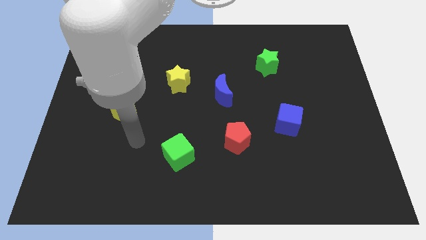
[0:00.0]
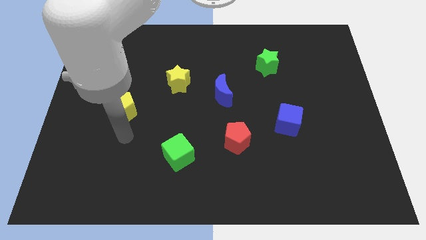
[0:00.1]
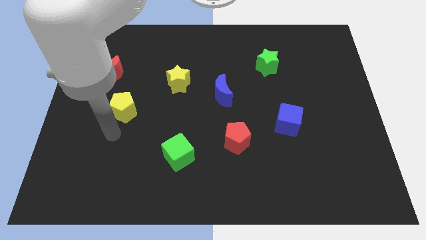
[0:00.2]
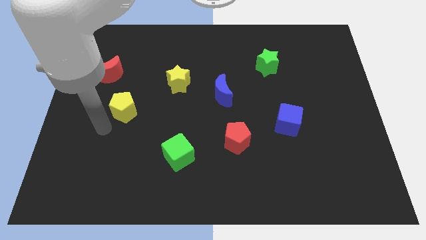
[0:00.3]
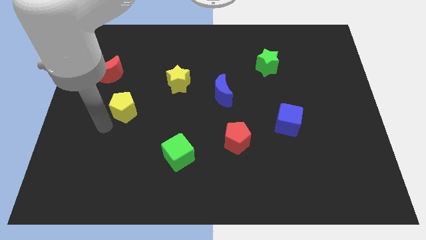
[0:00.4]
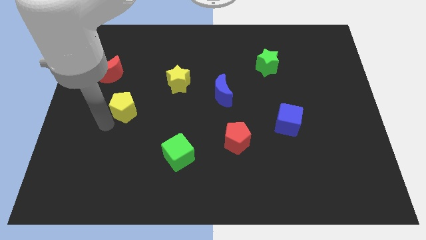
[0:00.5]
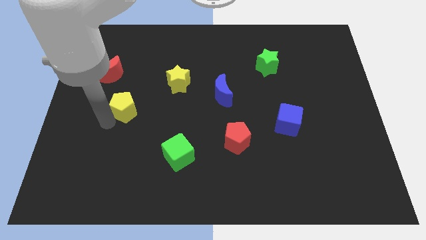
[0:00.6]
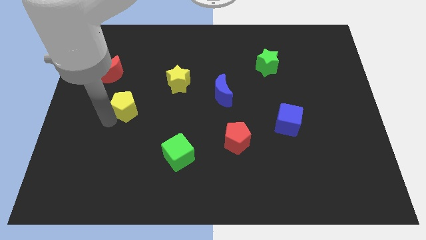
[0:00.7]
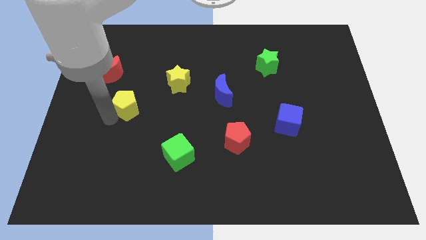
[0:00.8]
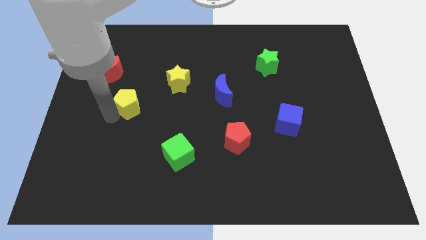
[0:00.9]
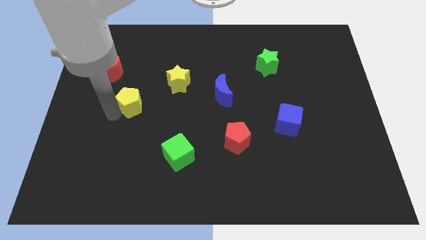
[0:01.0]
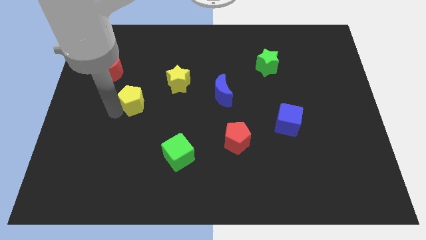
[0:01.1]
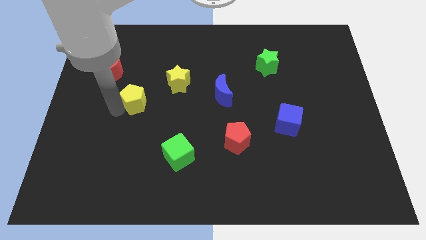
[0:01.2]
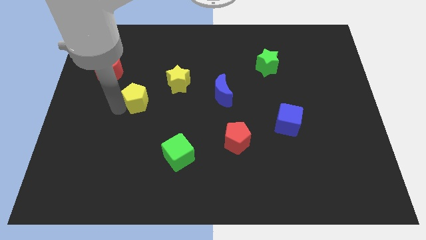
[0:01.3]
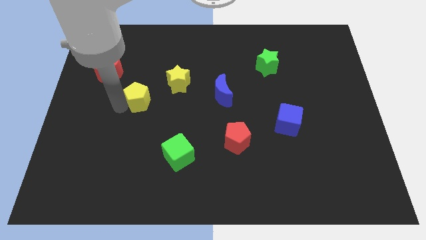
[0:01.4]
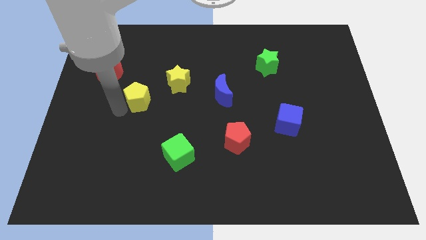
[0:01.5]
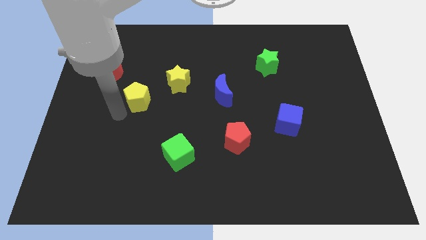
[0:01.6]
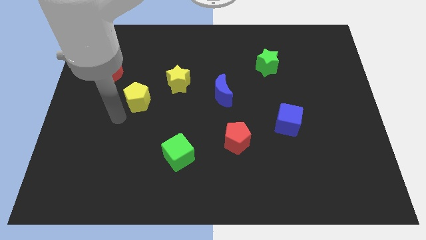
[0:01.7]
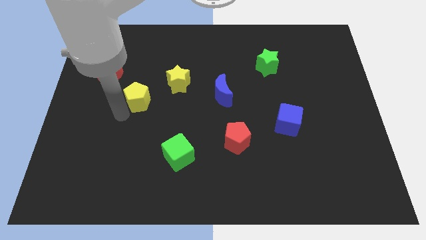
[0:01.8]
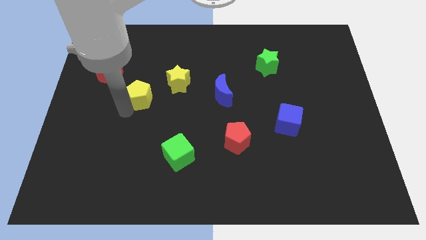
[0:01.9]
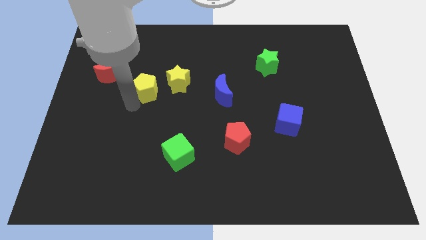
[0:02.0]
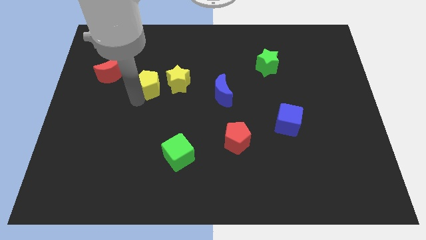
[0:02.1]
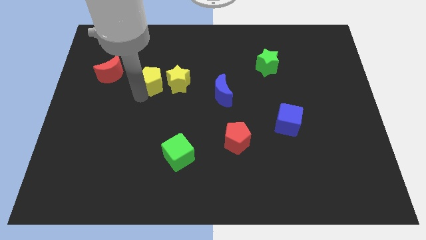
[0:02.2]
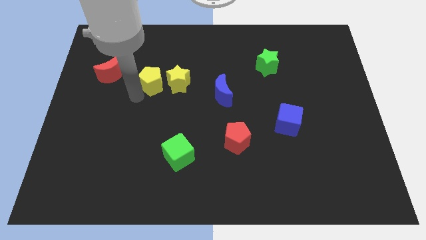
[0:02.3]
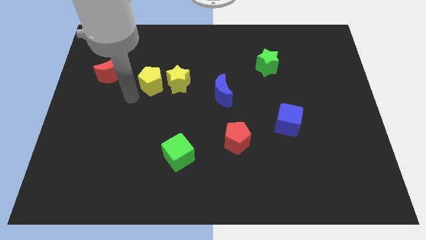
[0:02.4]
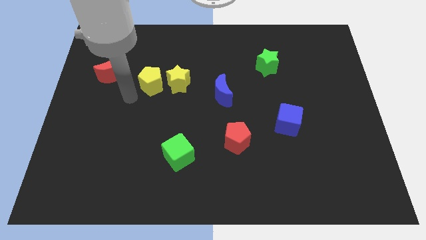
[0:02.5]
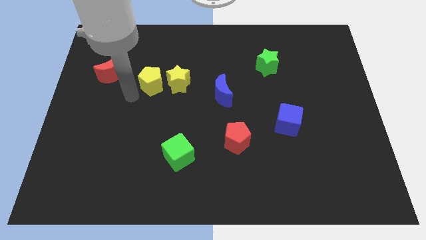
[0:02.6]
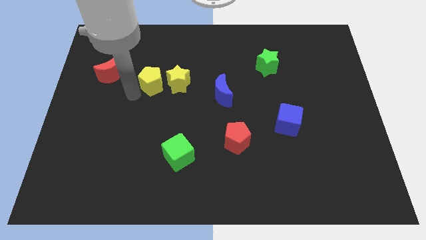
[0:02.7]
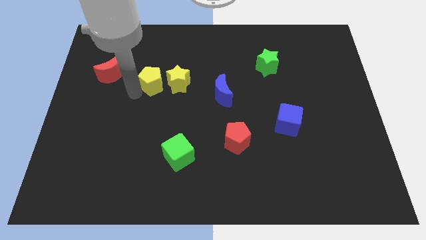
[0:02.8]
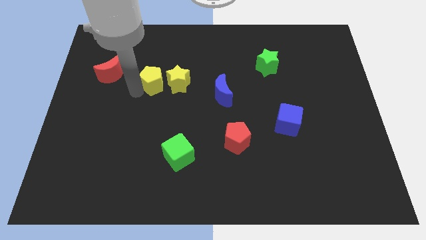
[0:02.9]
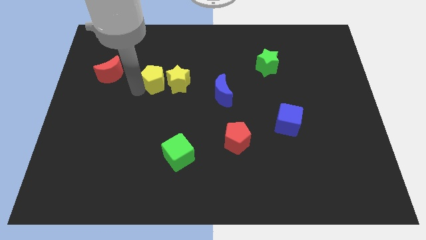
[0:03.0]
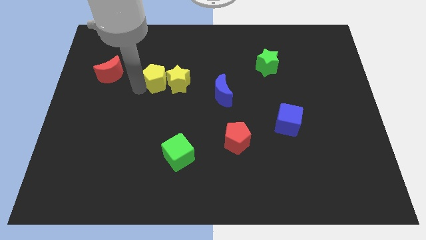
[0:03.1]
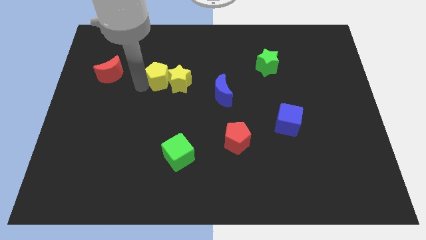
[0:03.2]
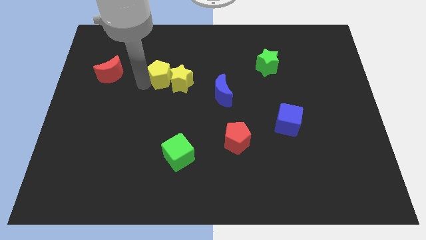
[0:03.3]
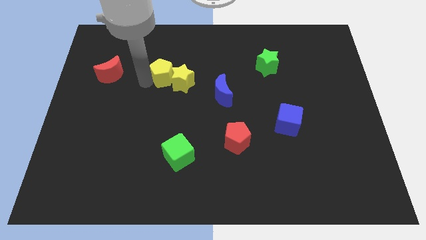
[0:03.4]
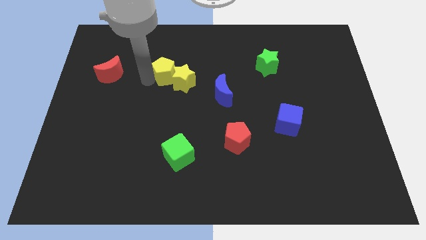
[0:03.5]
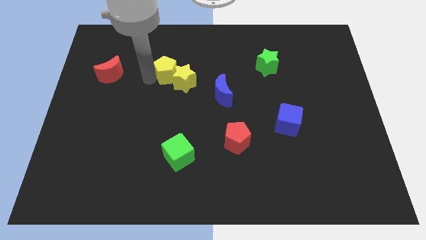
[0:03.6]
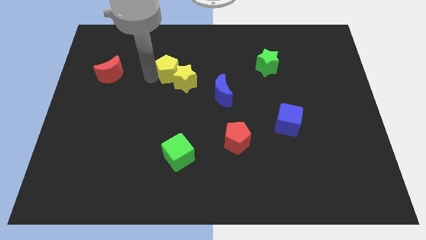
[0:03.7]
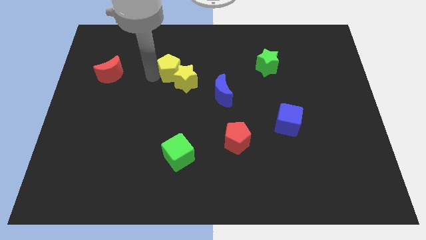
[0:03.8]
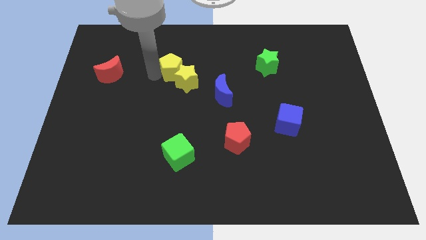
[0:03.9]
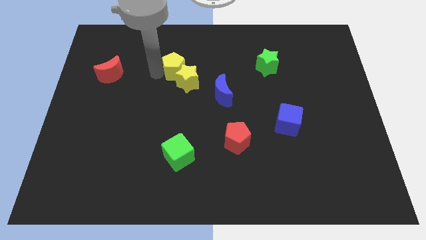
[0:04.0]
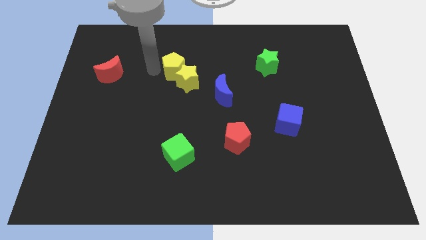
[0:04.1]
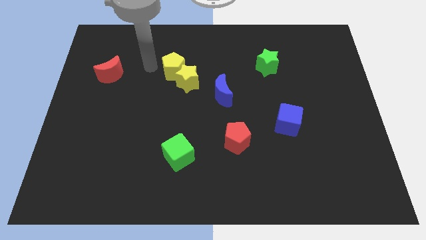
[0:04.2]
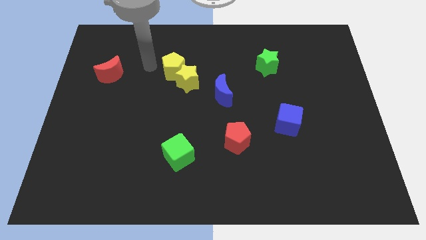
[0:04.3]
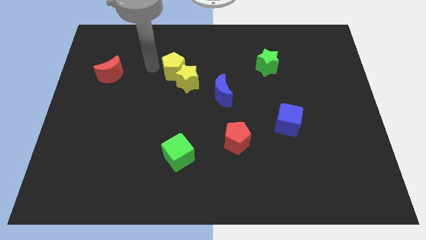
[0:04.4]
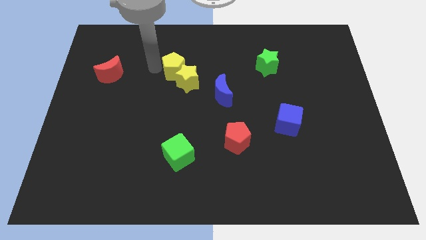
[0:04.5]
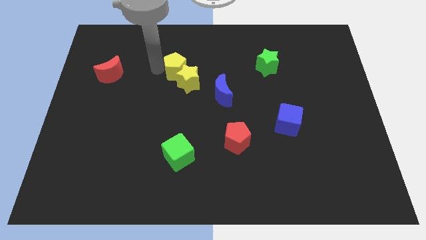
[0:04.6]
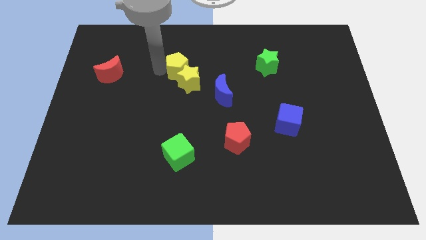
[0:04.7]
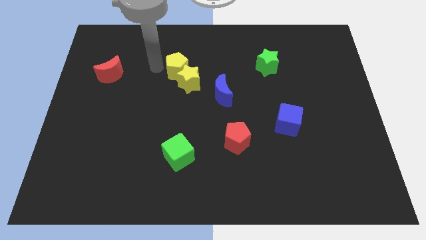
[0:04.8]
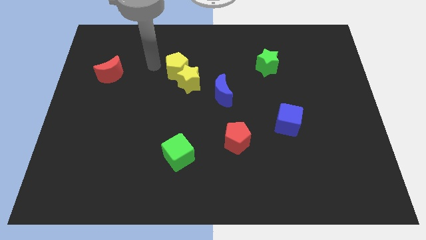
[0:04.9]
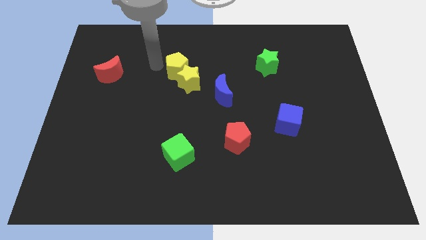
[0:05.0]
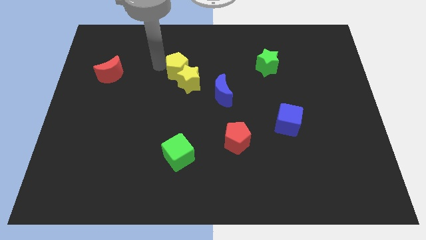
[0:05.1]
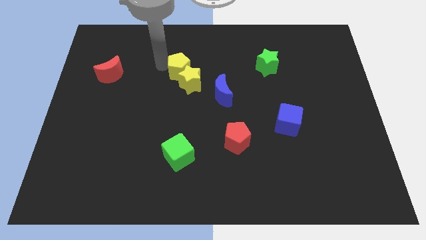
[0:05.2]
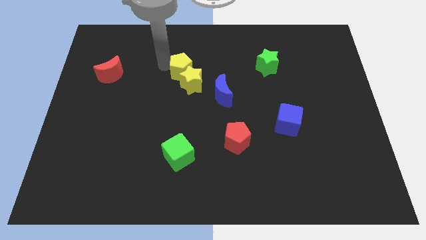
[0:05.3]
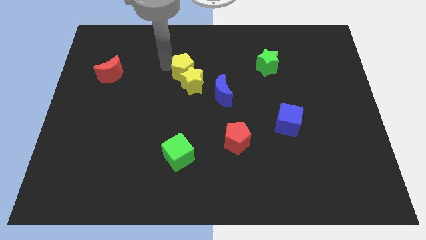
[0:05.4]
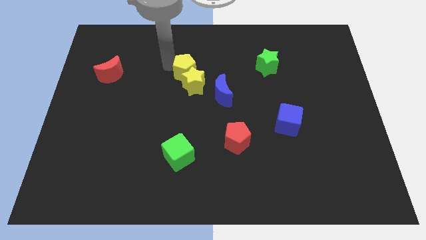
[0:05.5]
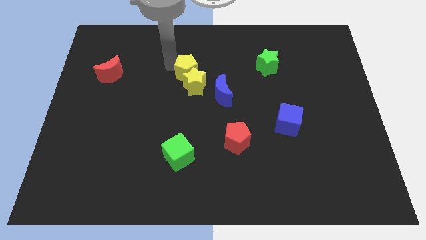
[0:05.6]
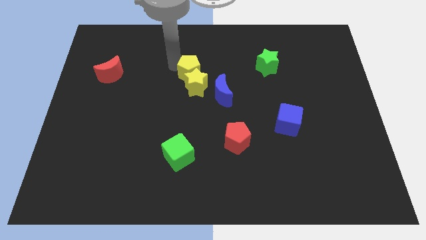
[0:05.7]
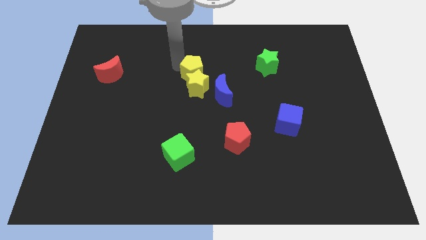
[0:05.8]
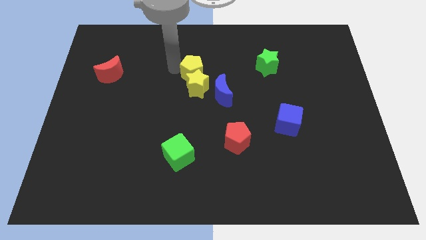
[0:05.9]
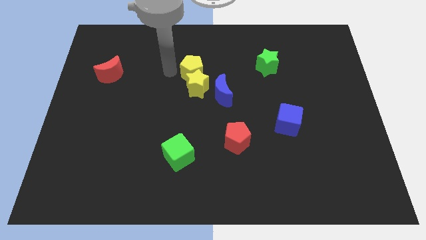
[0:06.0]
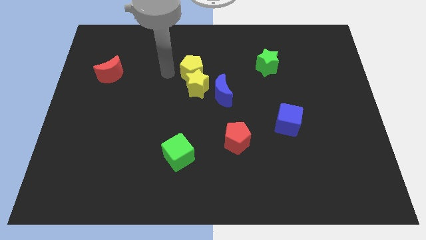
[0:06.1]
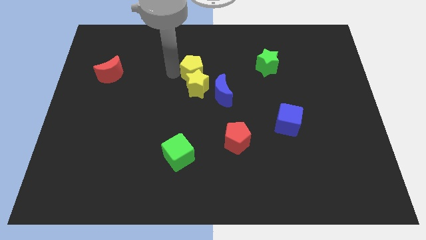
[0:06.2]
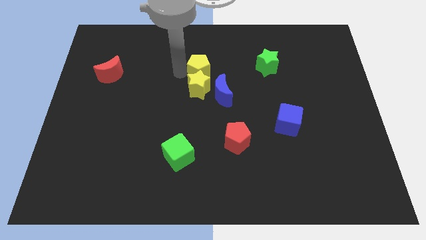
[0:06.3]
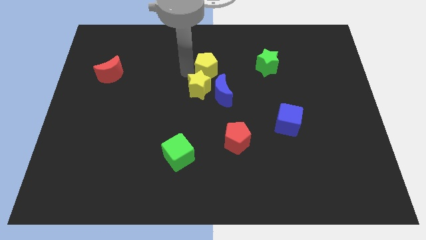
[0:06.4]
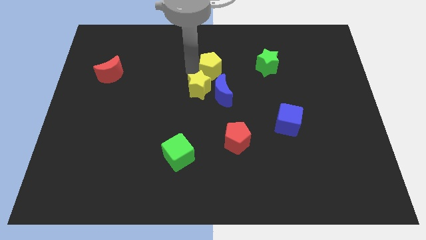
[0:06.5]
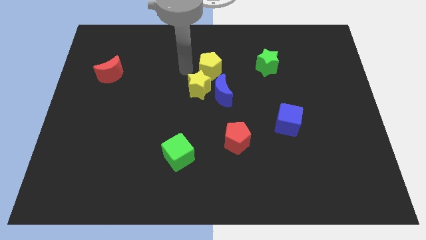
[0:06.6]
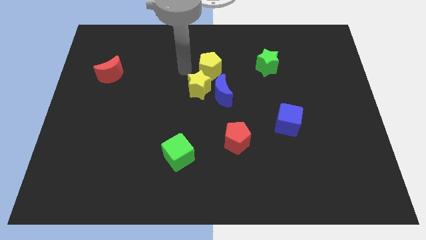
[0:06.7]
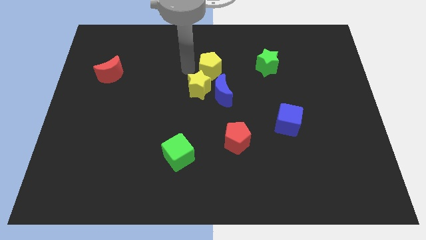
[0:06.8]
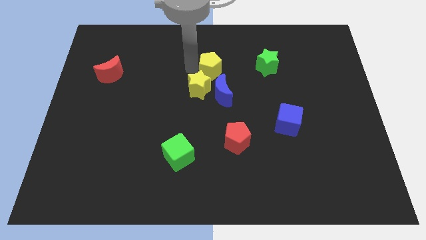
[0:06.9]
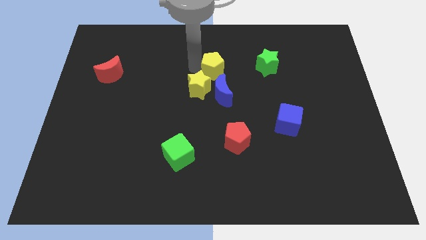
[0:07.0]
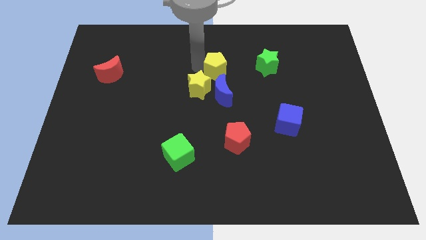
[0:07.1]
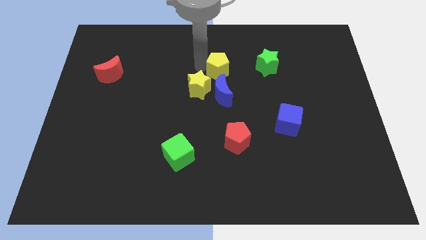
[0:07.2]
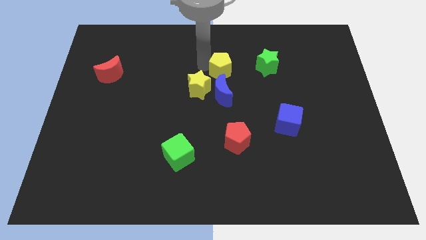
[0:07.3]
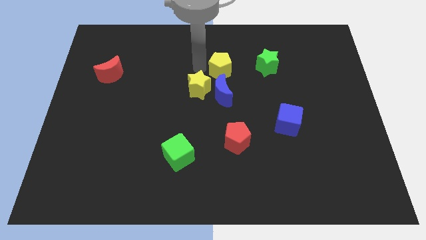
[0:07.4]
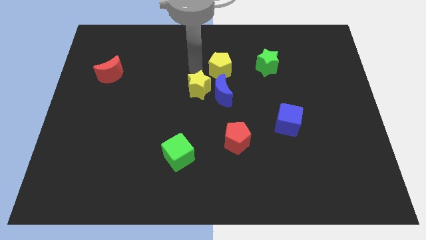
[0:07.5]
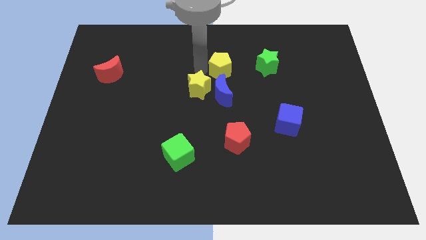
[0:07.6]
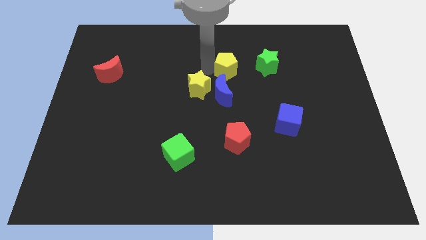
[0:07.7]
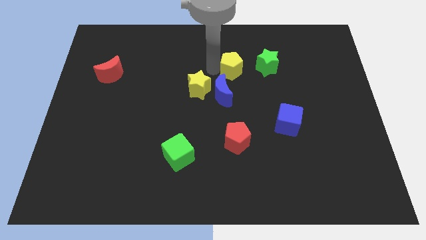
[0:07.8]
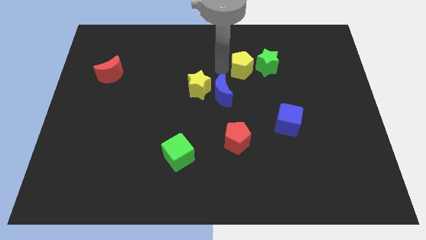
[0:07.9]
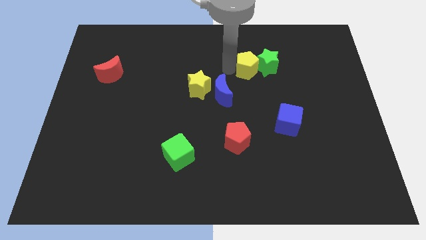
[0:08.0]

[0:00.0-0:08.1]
put the yellow pentagon next to the green star

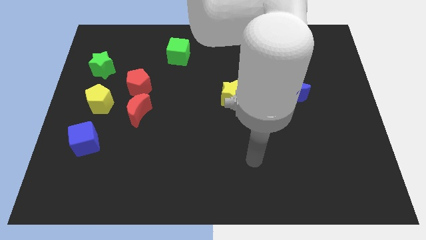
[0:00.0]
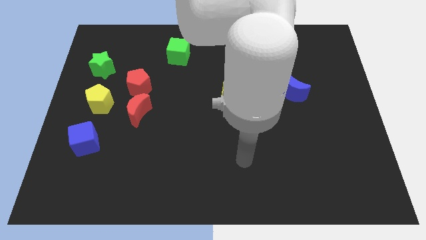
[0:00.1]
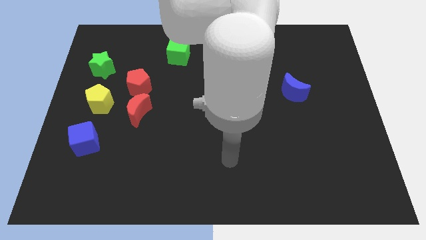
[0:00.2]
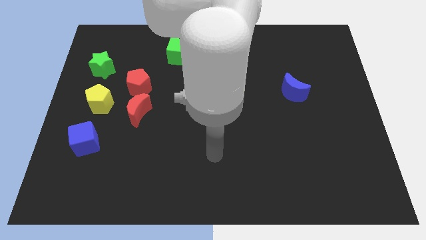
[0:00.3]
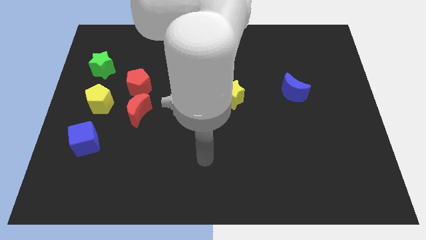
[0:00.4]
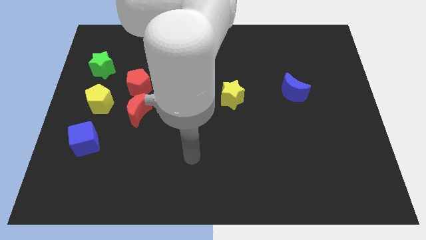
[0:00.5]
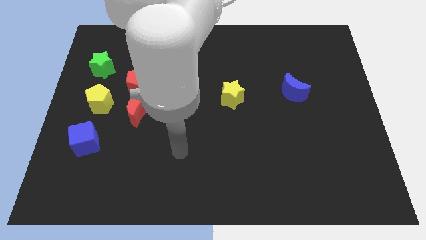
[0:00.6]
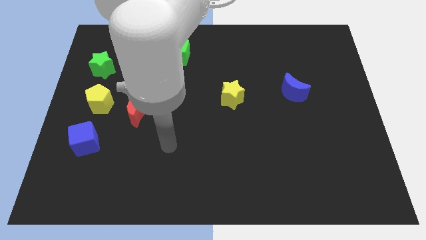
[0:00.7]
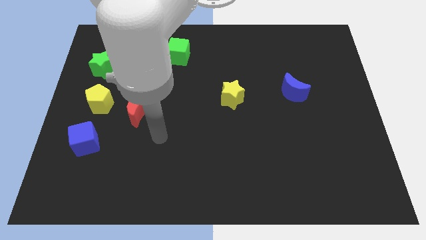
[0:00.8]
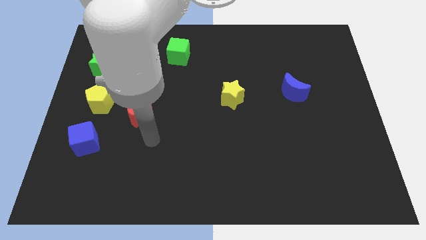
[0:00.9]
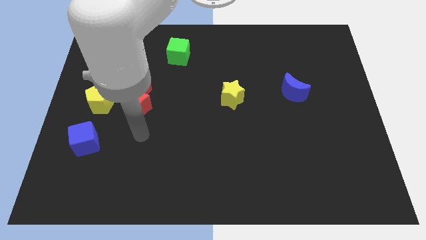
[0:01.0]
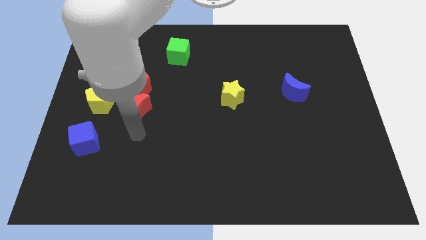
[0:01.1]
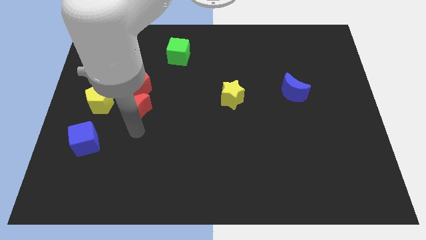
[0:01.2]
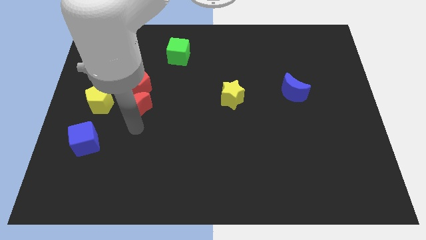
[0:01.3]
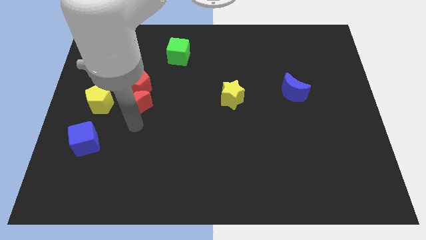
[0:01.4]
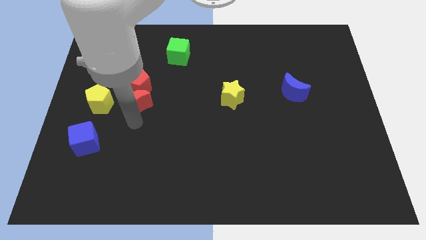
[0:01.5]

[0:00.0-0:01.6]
put the red moon close to the red pentagon
